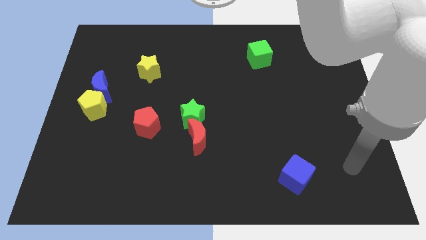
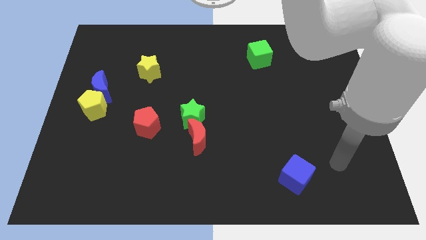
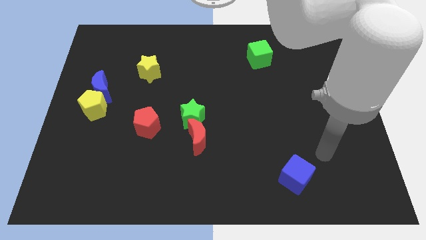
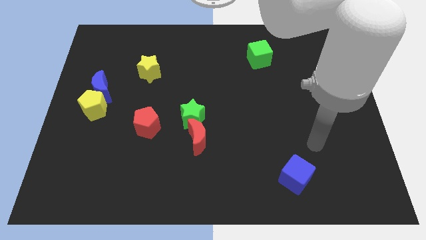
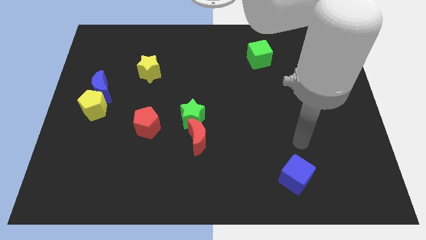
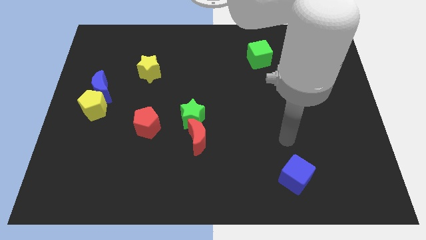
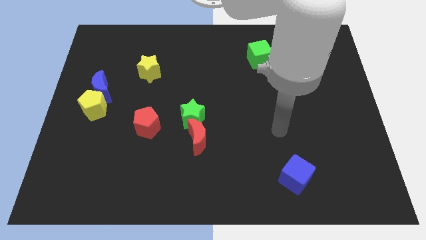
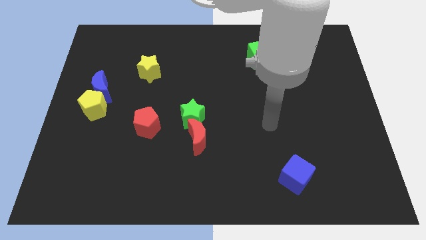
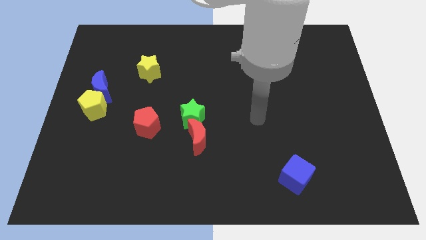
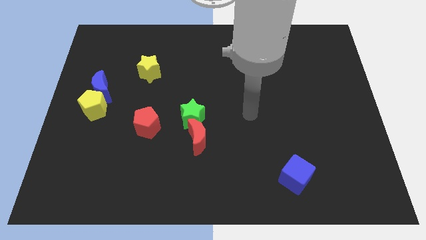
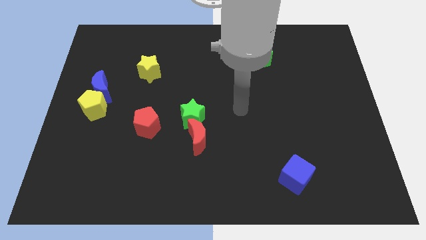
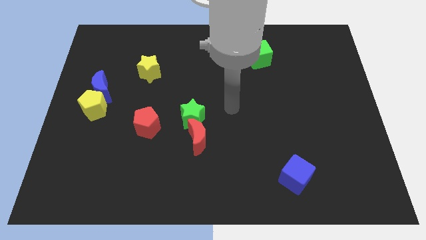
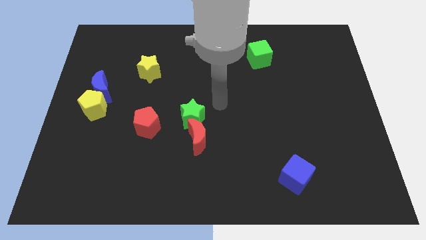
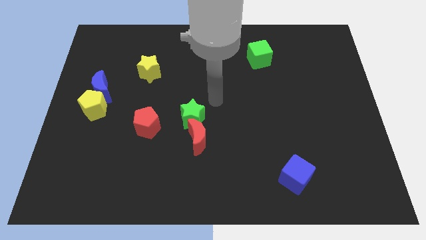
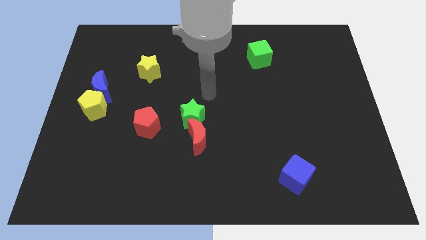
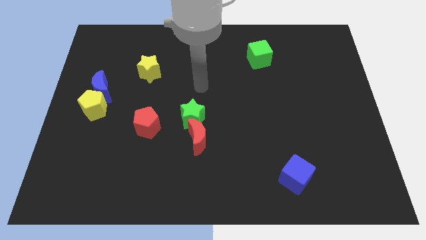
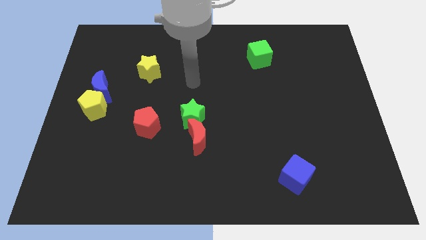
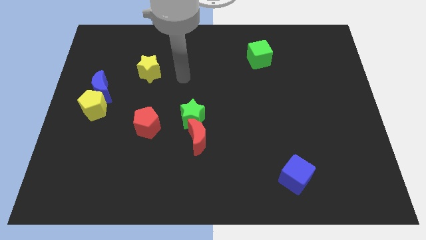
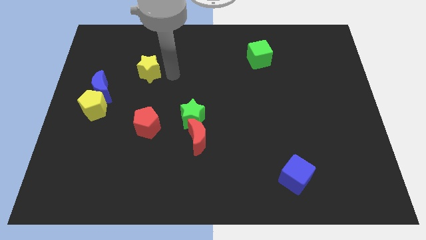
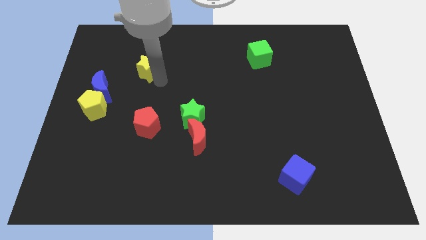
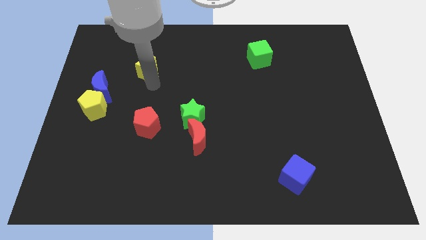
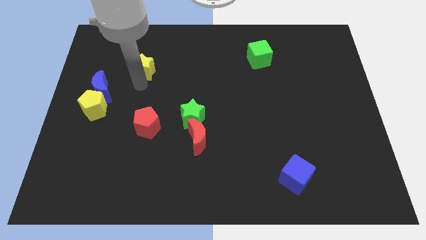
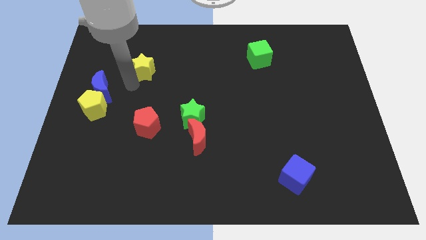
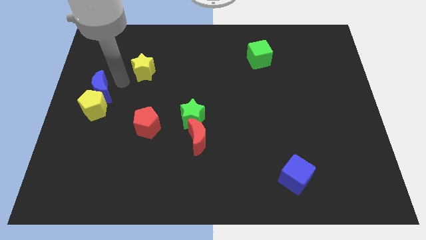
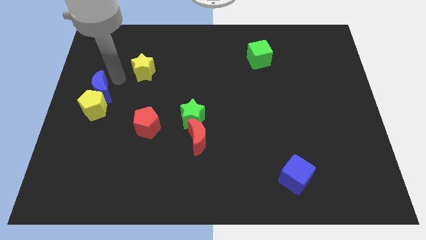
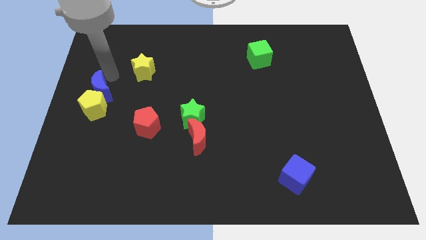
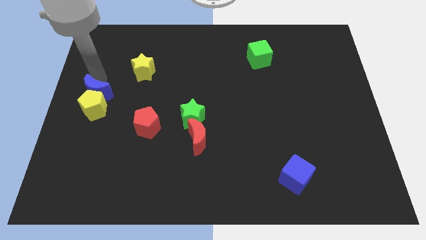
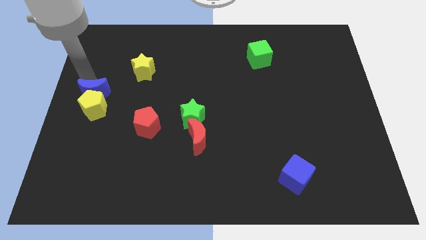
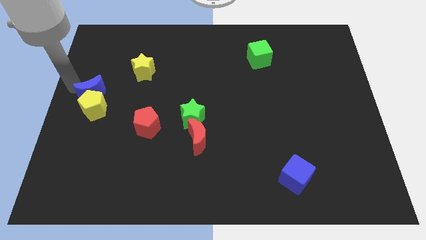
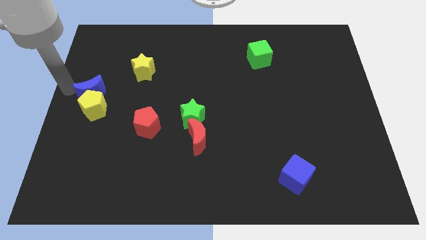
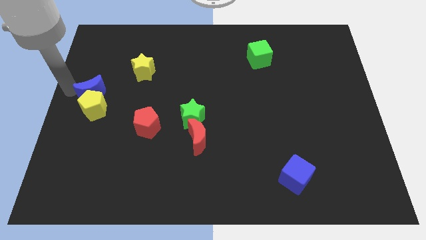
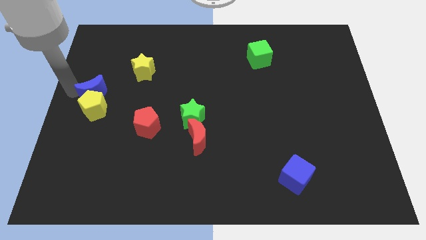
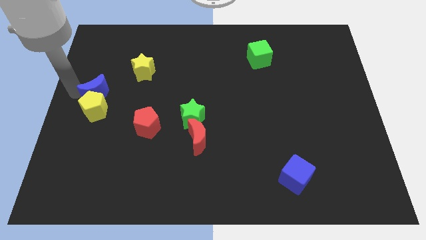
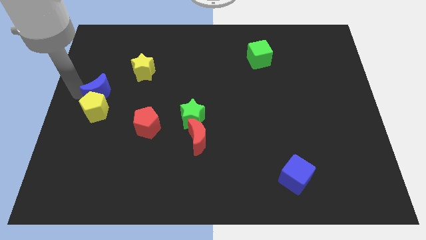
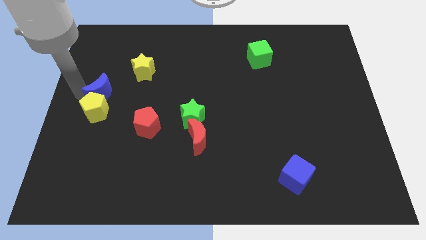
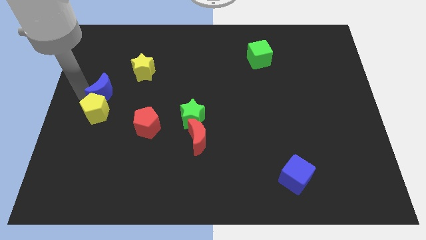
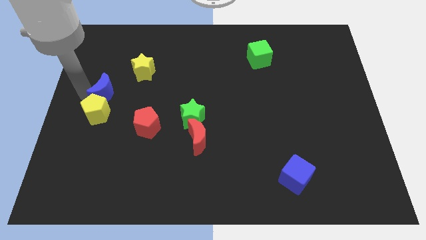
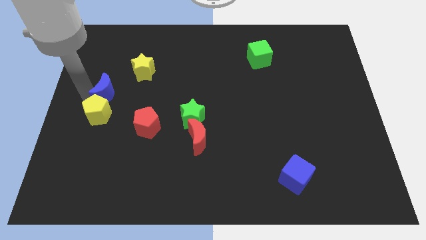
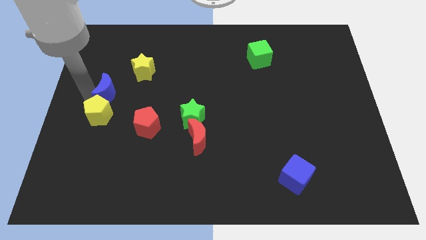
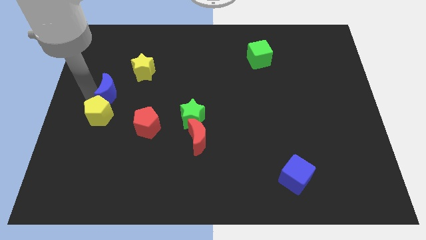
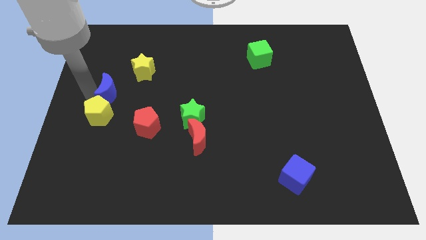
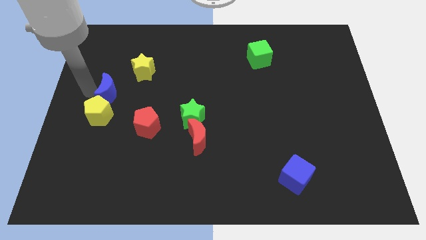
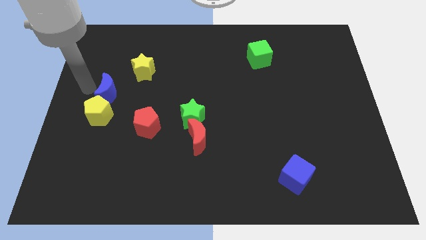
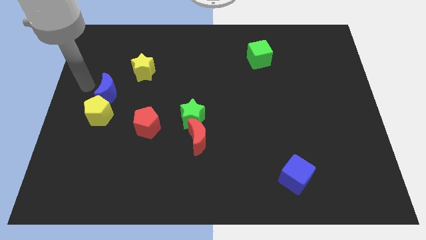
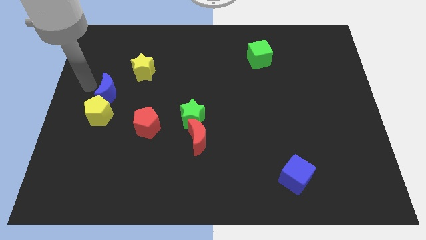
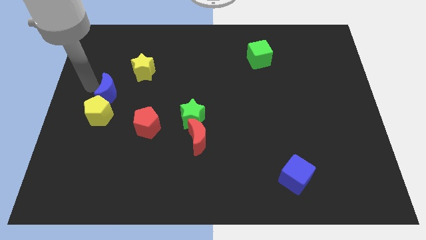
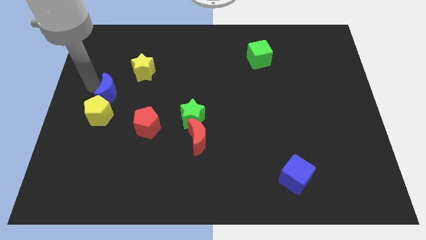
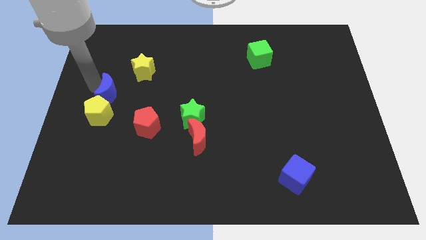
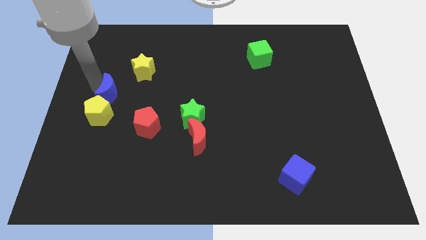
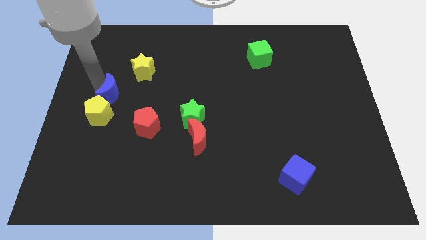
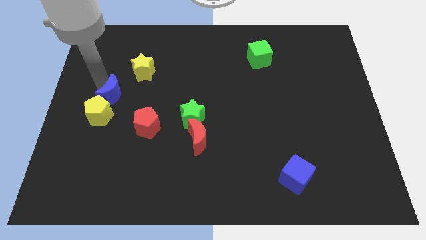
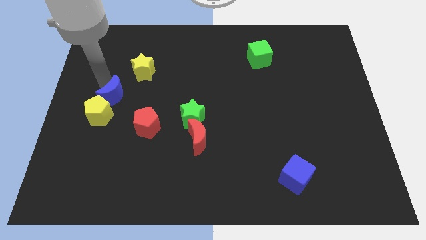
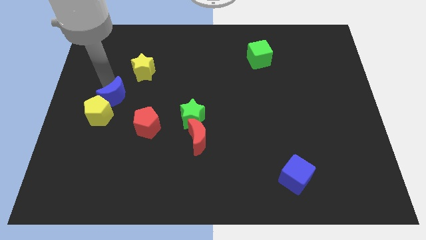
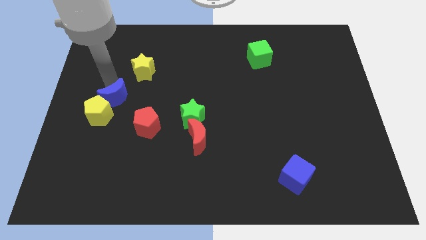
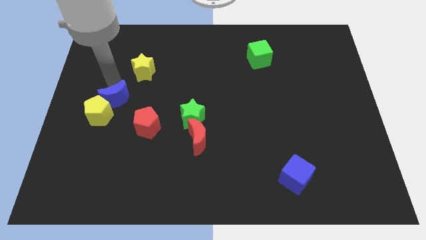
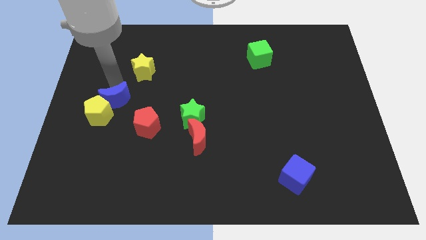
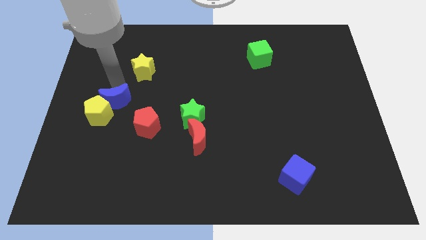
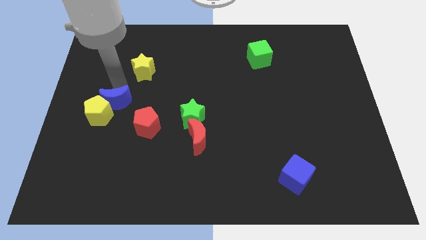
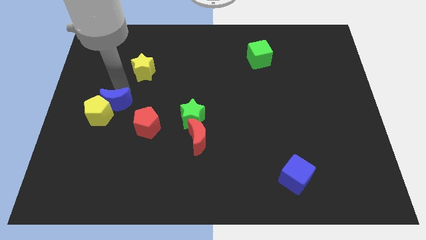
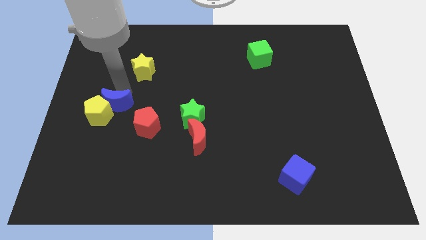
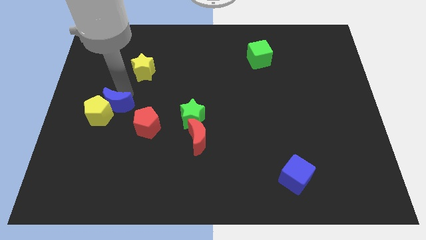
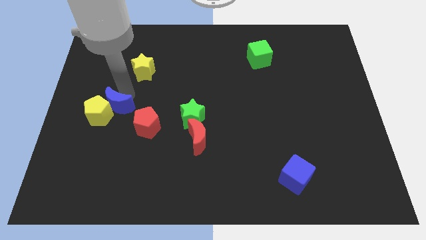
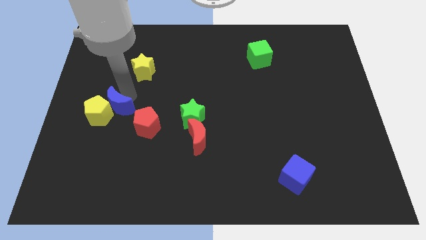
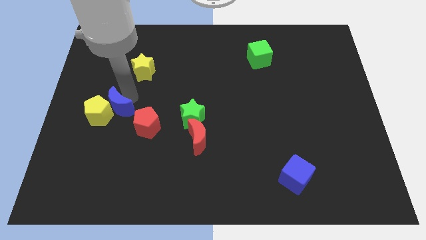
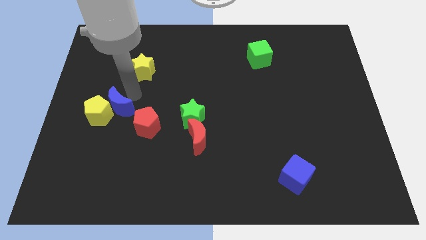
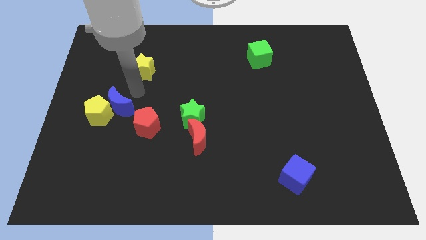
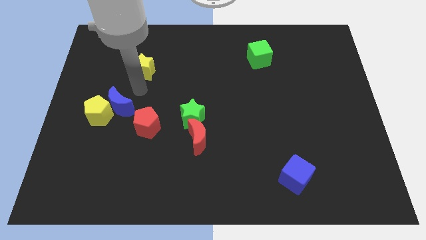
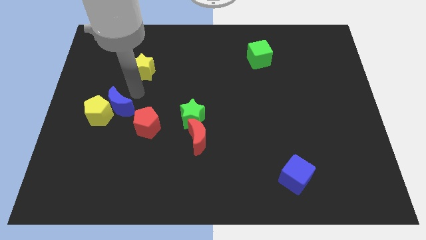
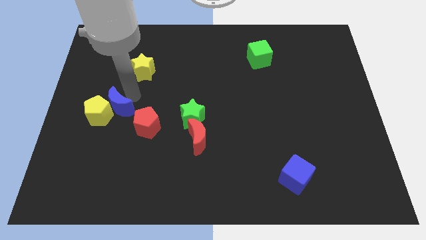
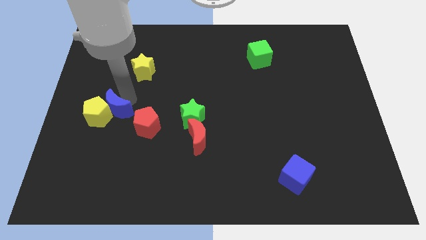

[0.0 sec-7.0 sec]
push the blue moon left of the red pentagon

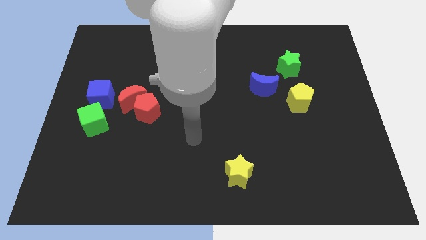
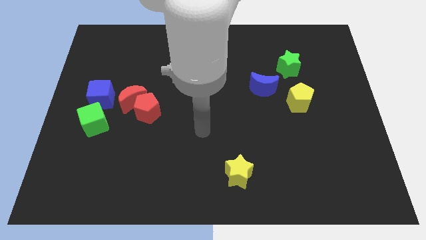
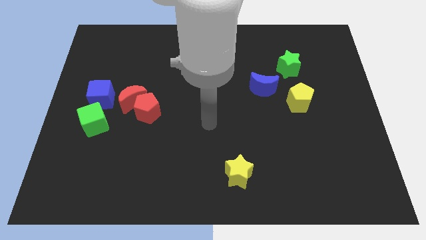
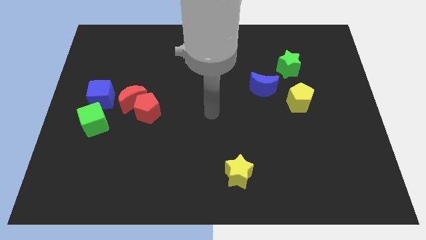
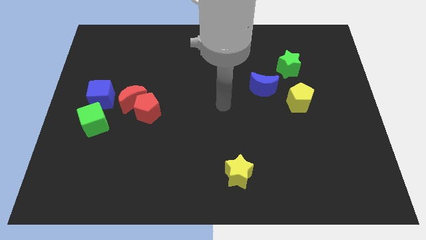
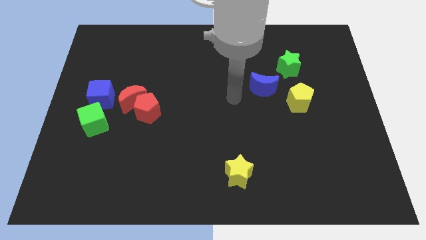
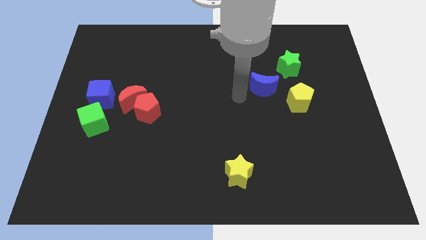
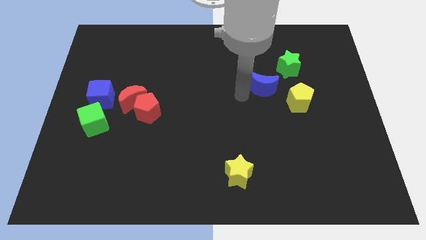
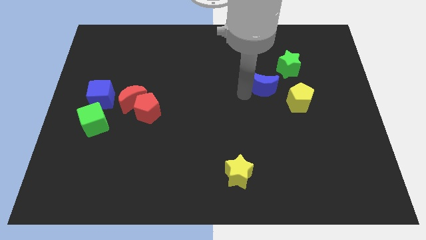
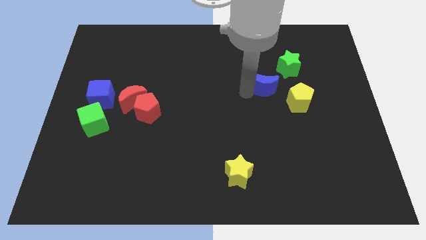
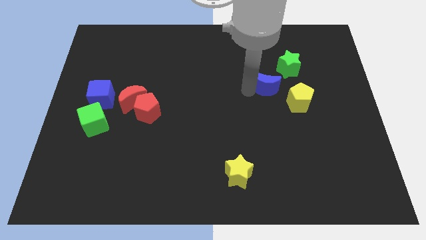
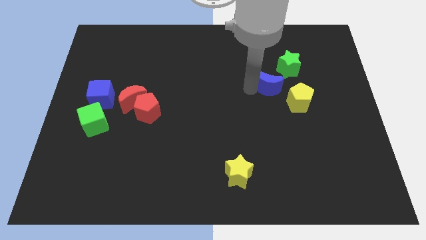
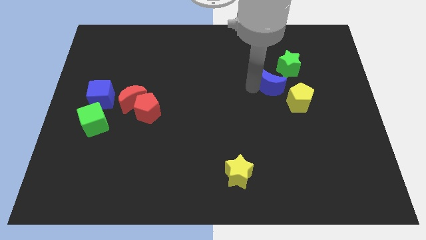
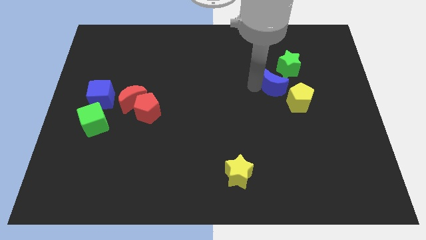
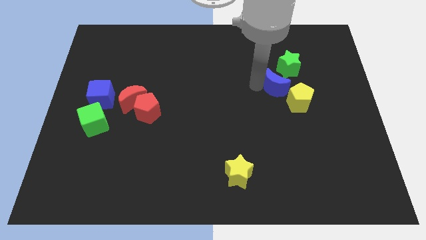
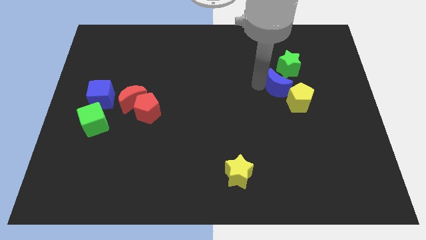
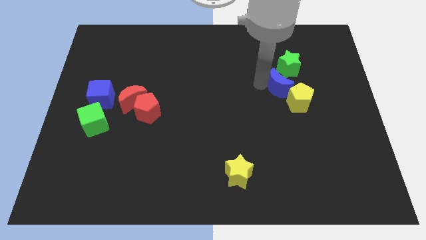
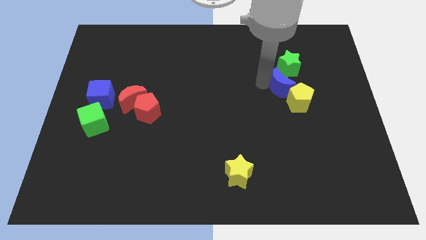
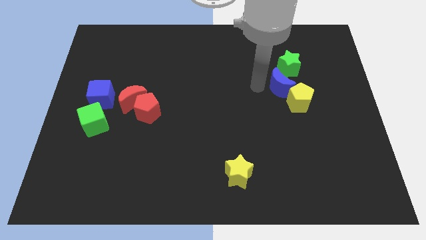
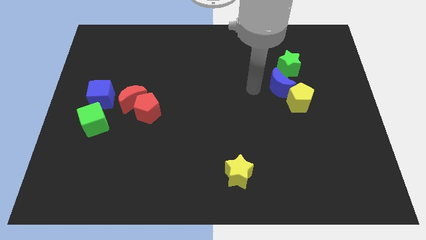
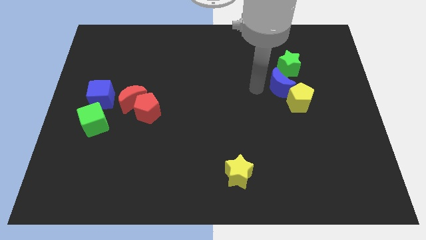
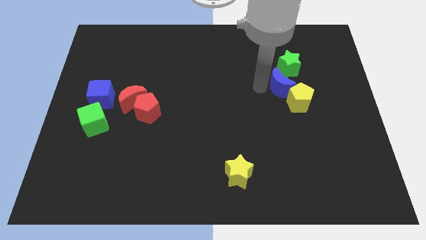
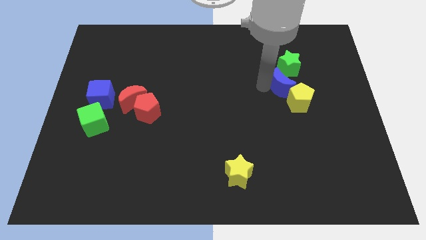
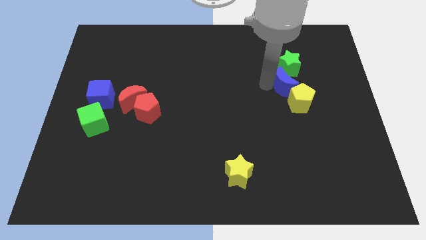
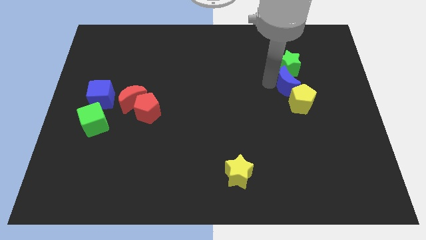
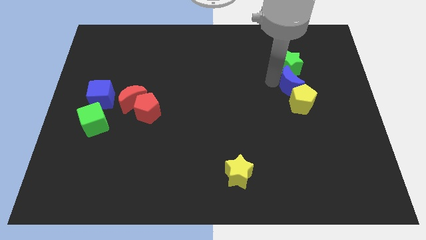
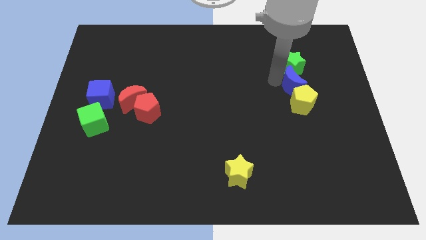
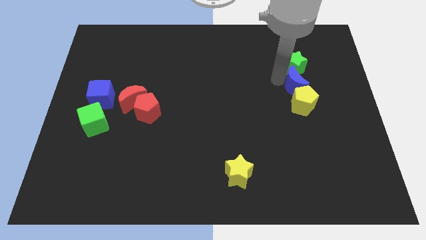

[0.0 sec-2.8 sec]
slide the blue moon diagonally up and to the right of the yellow pentagon
